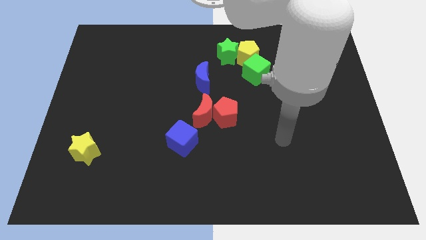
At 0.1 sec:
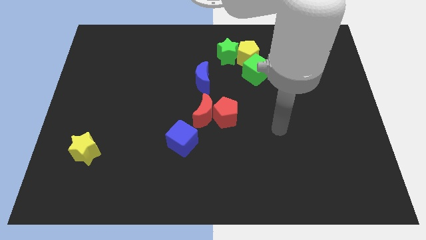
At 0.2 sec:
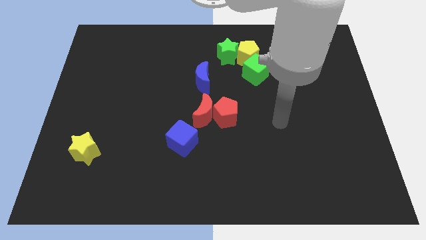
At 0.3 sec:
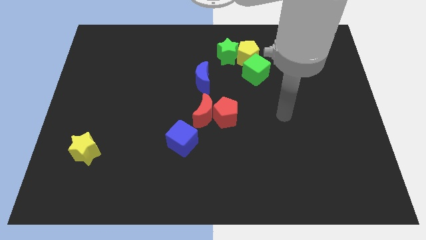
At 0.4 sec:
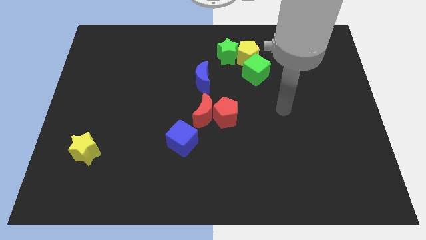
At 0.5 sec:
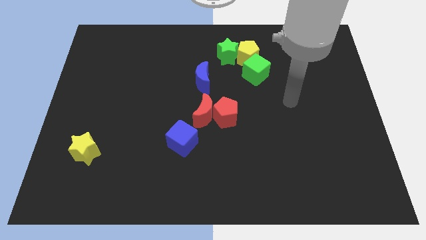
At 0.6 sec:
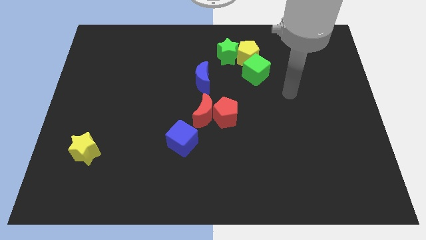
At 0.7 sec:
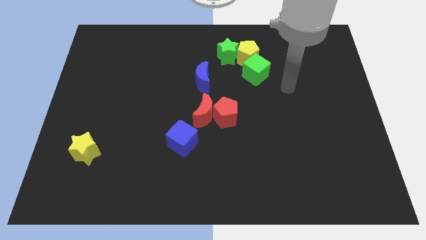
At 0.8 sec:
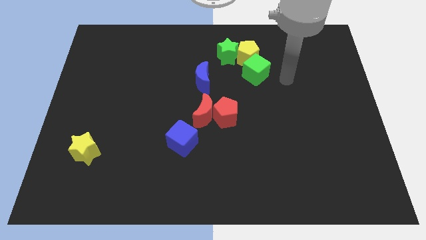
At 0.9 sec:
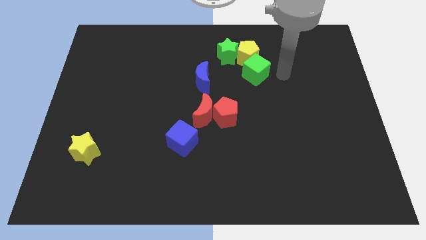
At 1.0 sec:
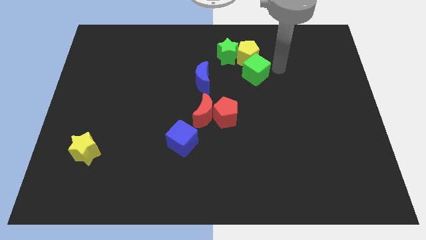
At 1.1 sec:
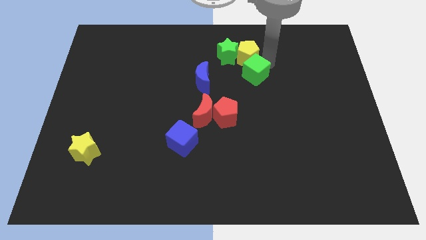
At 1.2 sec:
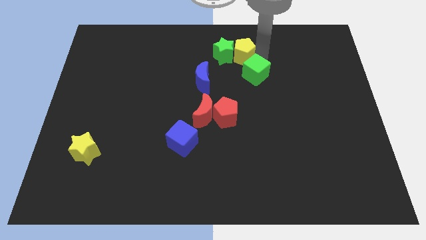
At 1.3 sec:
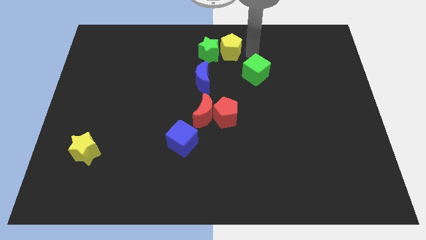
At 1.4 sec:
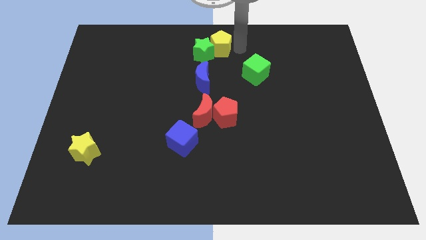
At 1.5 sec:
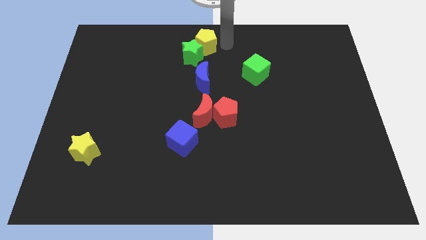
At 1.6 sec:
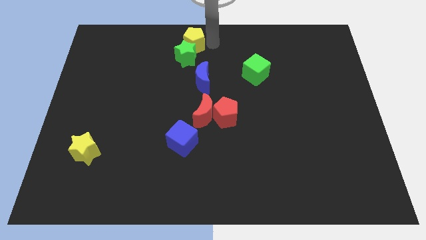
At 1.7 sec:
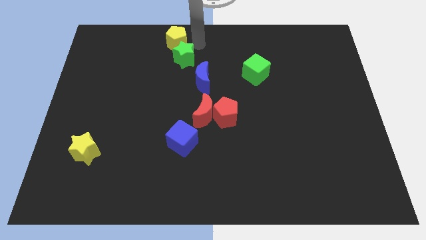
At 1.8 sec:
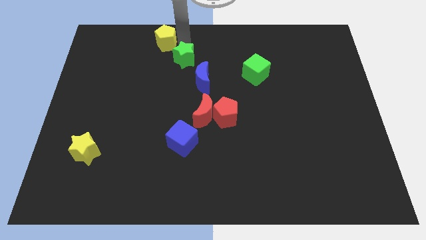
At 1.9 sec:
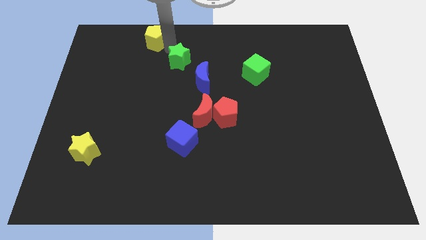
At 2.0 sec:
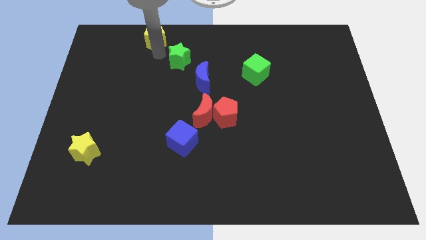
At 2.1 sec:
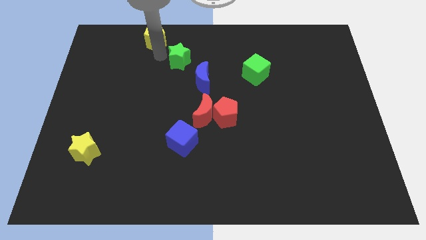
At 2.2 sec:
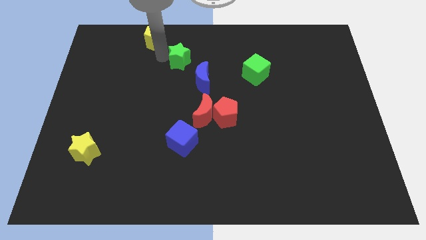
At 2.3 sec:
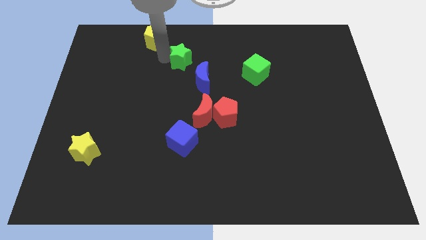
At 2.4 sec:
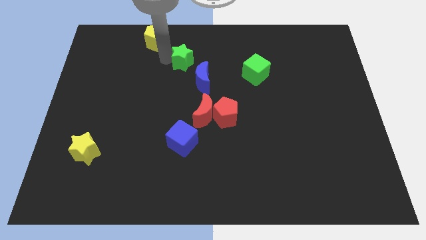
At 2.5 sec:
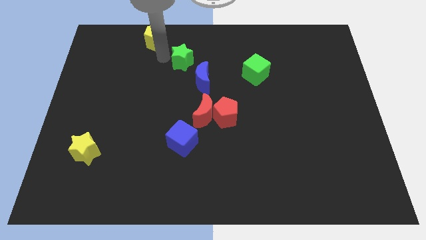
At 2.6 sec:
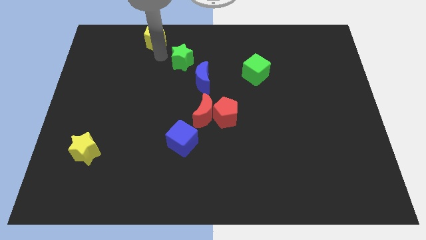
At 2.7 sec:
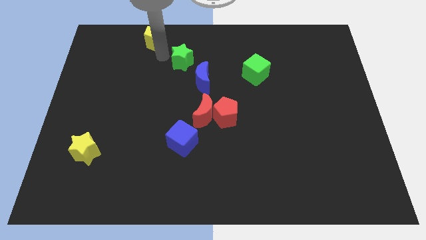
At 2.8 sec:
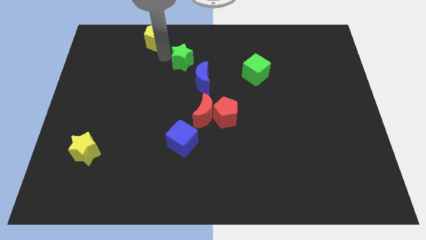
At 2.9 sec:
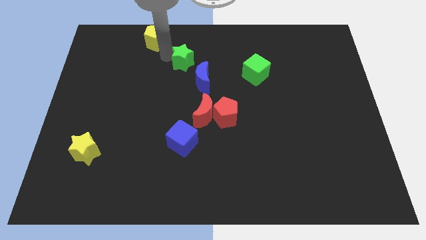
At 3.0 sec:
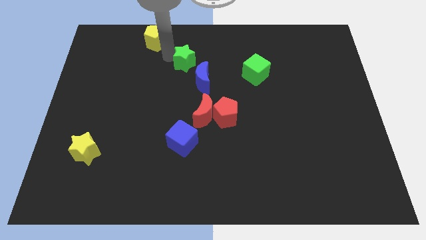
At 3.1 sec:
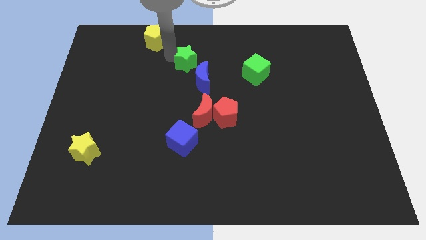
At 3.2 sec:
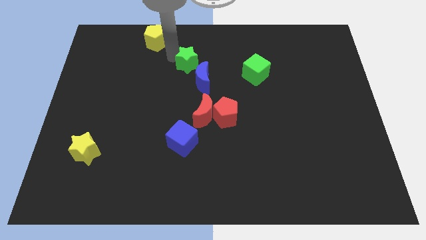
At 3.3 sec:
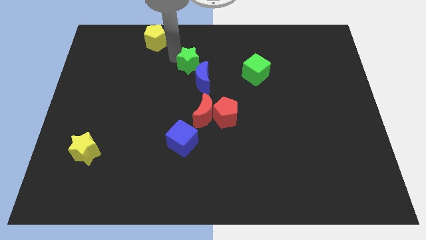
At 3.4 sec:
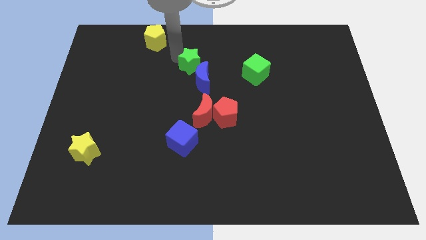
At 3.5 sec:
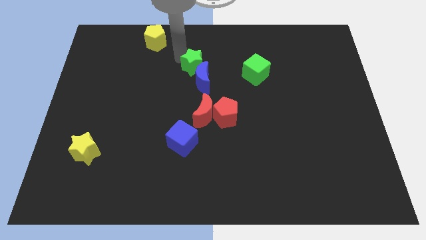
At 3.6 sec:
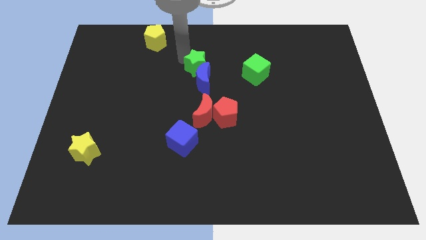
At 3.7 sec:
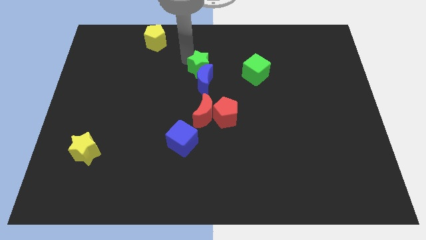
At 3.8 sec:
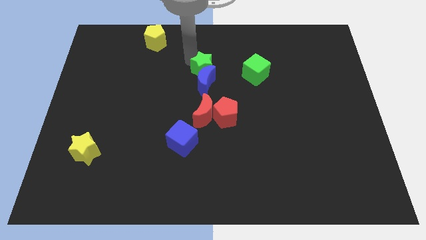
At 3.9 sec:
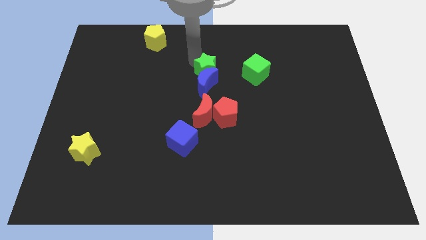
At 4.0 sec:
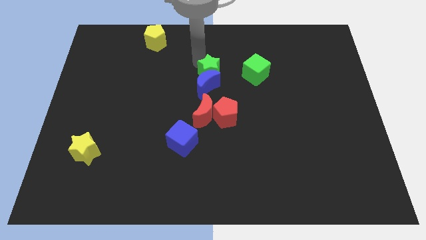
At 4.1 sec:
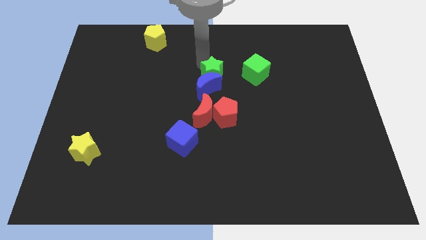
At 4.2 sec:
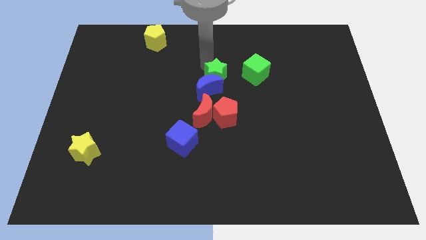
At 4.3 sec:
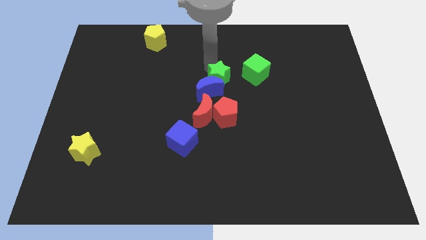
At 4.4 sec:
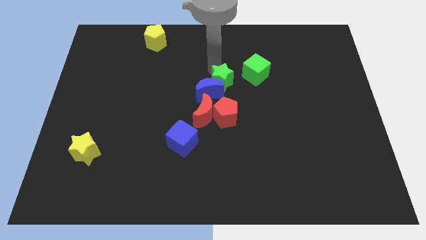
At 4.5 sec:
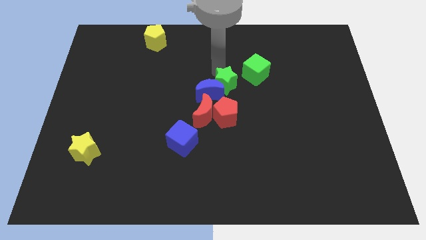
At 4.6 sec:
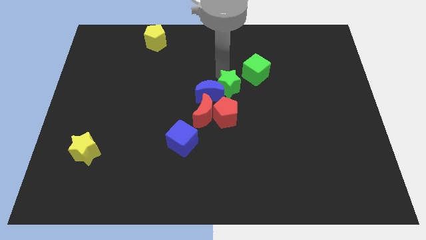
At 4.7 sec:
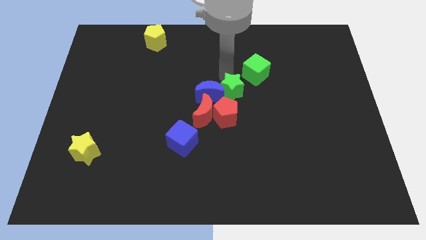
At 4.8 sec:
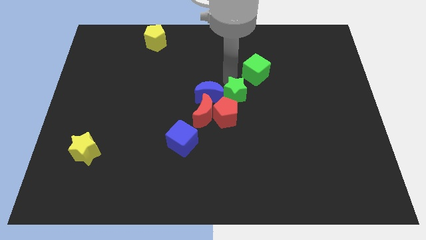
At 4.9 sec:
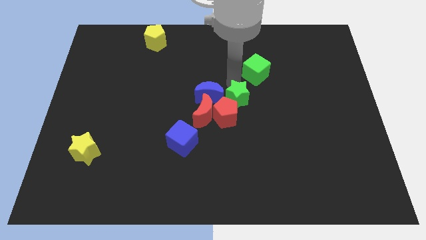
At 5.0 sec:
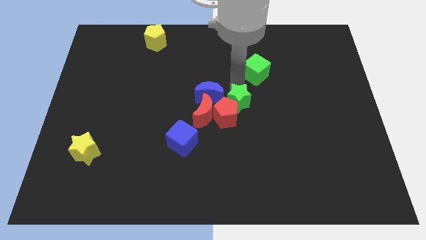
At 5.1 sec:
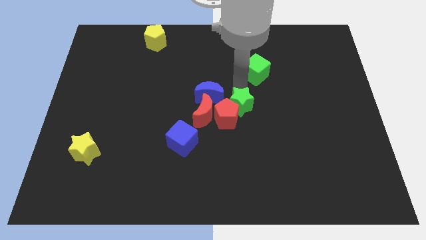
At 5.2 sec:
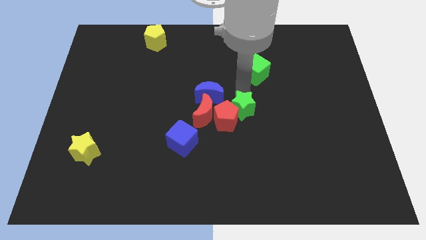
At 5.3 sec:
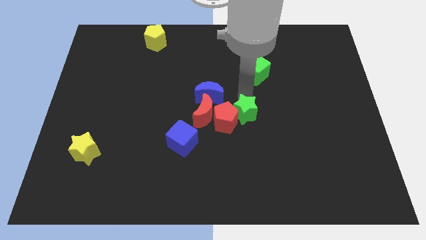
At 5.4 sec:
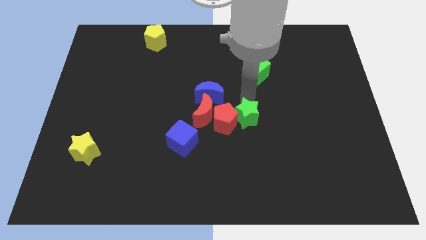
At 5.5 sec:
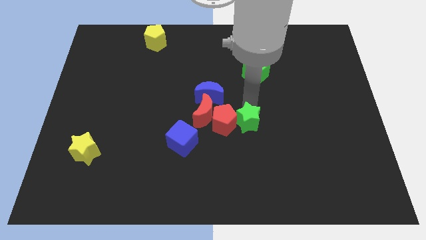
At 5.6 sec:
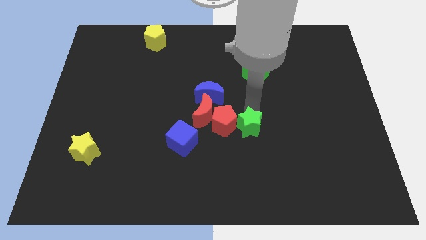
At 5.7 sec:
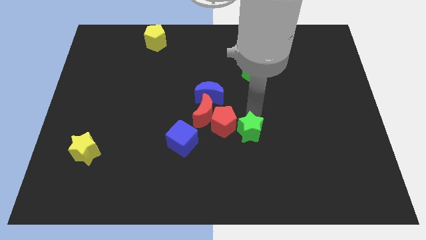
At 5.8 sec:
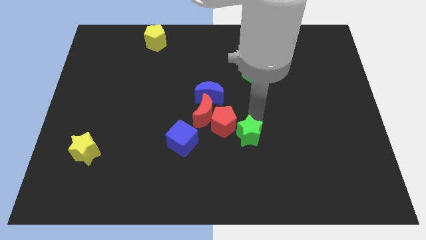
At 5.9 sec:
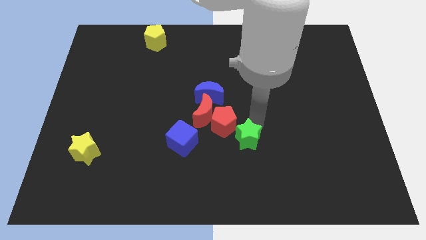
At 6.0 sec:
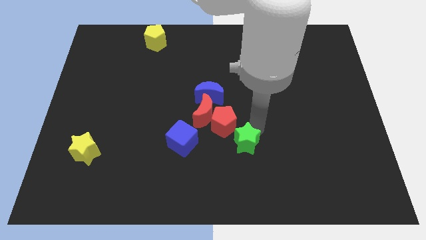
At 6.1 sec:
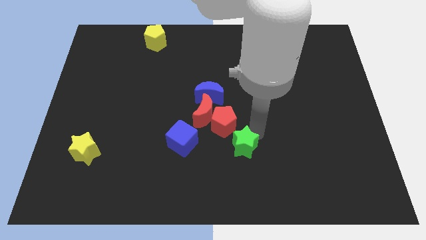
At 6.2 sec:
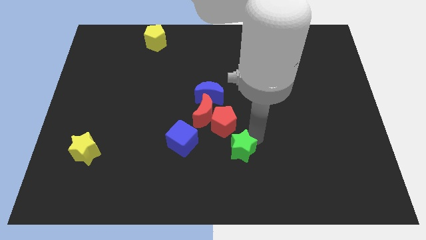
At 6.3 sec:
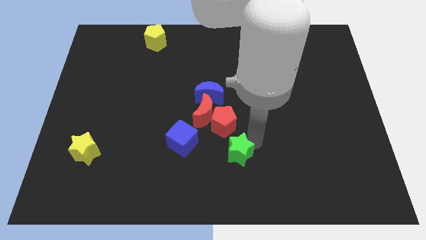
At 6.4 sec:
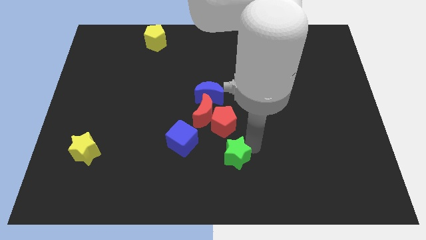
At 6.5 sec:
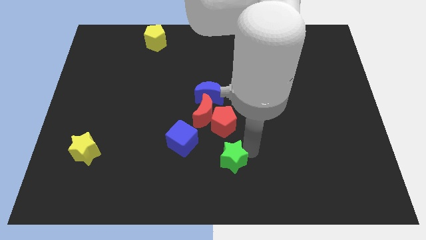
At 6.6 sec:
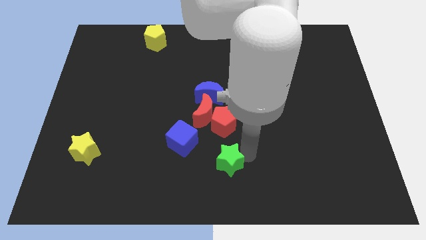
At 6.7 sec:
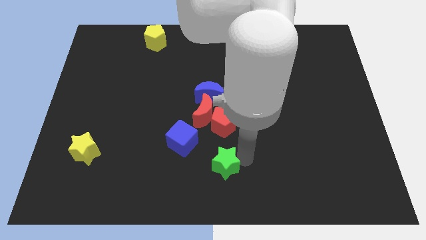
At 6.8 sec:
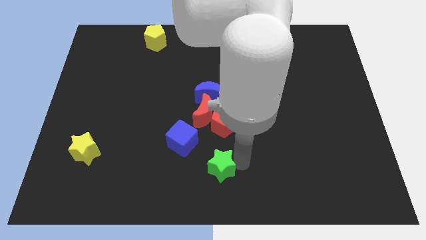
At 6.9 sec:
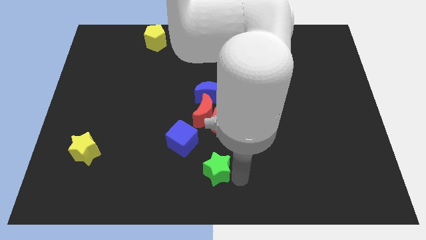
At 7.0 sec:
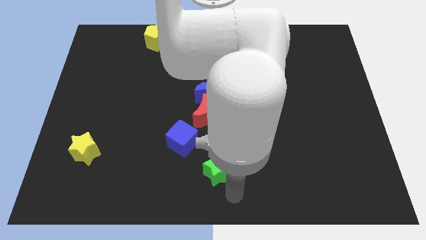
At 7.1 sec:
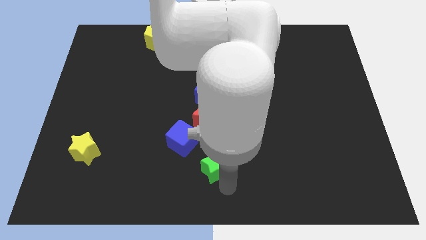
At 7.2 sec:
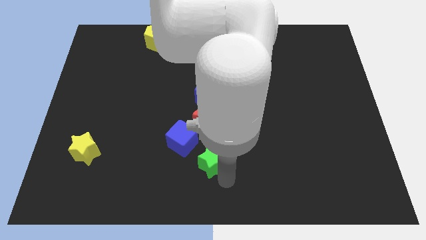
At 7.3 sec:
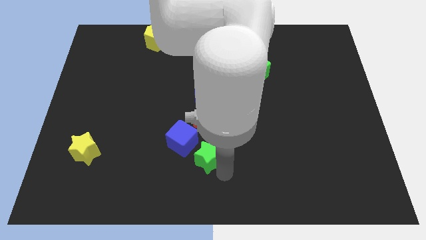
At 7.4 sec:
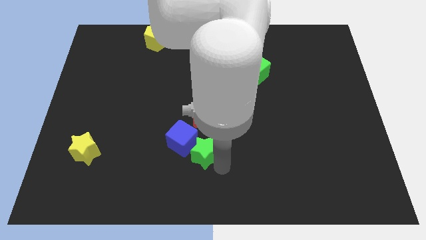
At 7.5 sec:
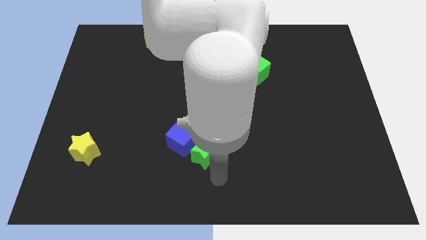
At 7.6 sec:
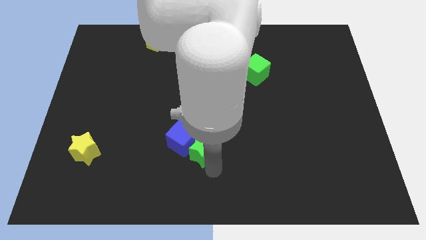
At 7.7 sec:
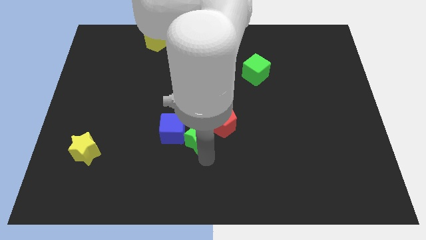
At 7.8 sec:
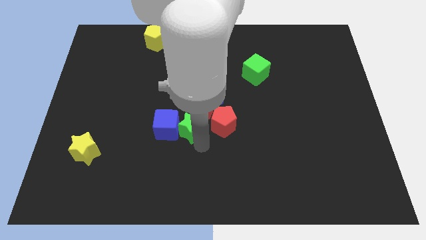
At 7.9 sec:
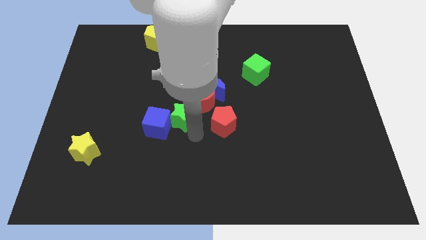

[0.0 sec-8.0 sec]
push the green star diagonally downwards and to the left
